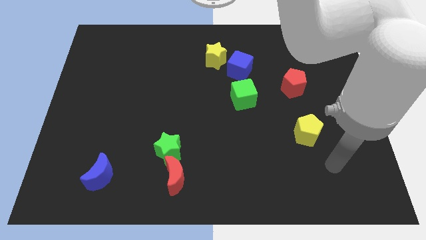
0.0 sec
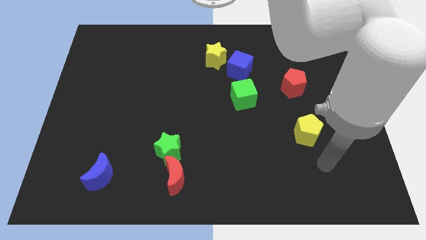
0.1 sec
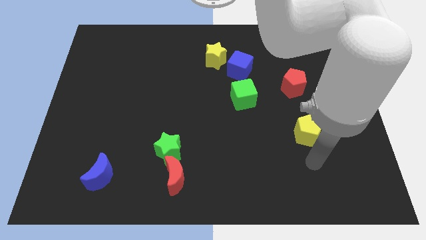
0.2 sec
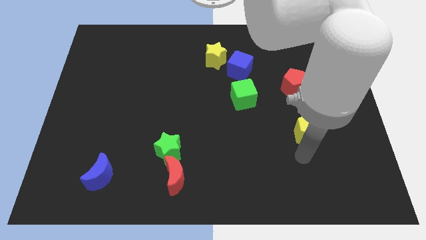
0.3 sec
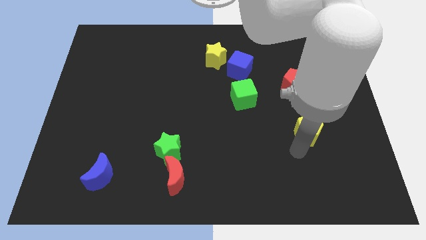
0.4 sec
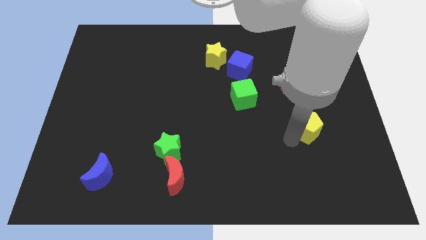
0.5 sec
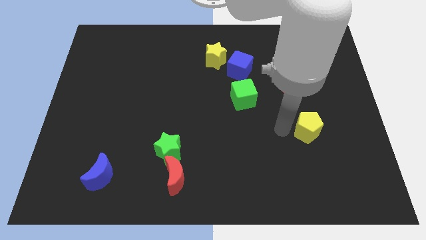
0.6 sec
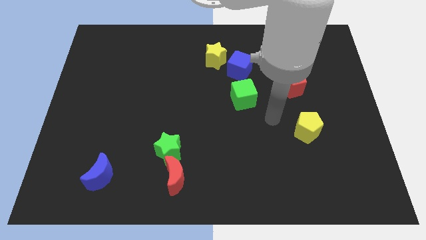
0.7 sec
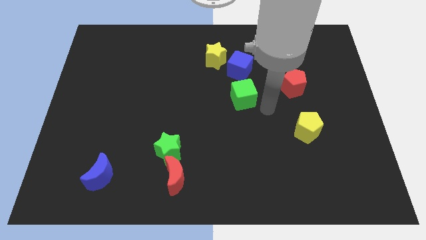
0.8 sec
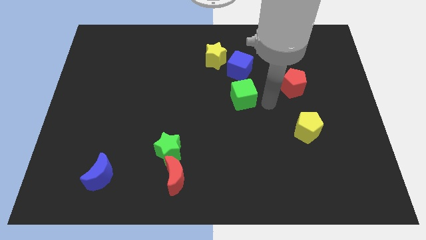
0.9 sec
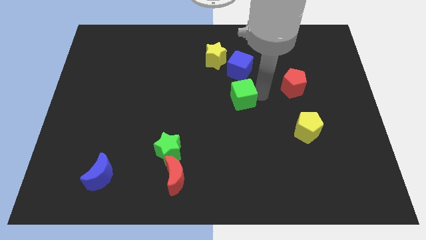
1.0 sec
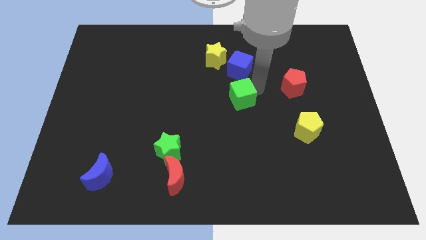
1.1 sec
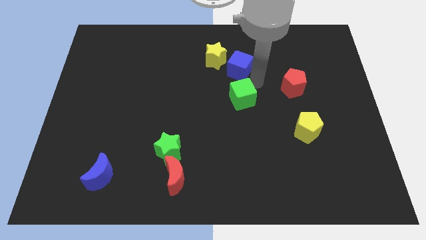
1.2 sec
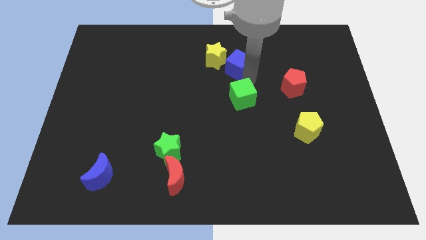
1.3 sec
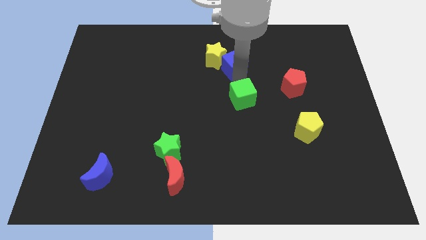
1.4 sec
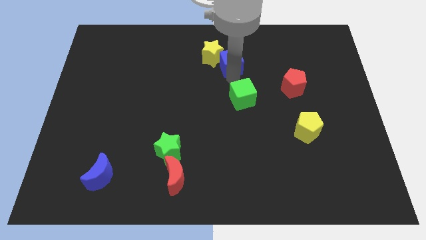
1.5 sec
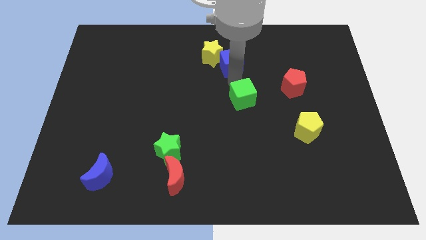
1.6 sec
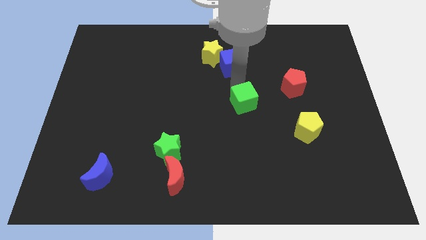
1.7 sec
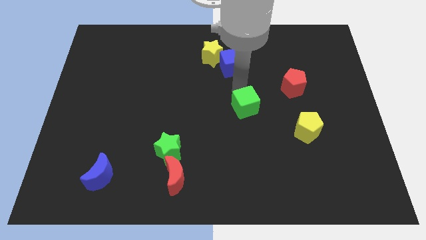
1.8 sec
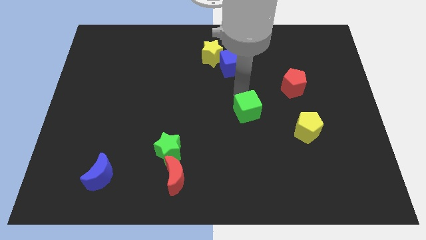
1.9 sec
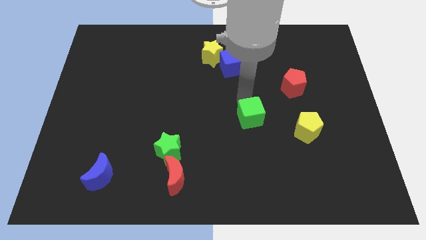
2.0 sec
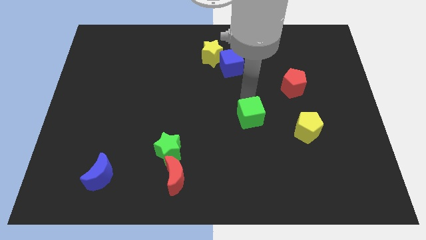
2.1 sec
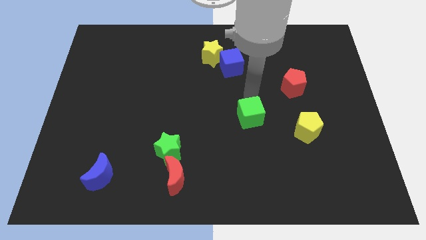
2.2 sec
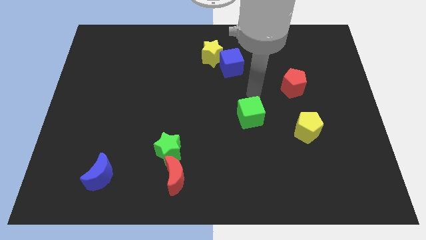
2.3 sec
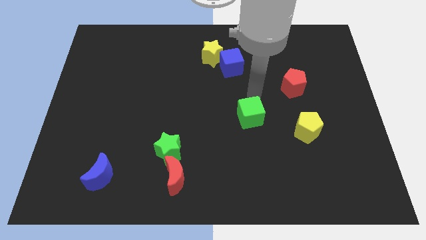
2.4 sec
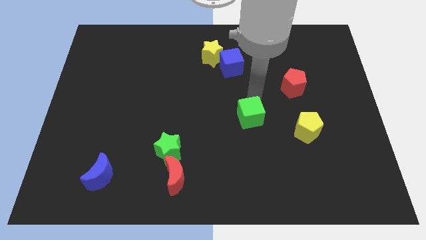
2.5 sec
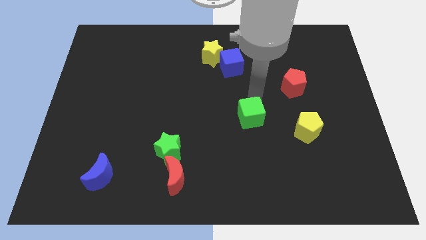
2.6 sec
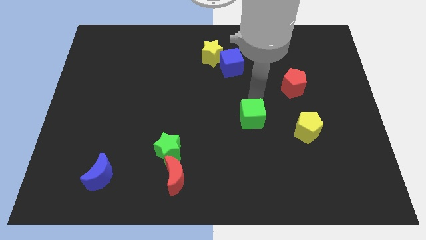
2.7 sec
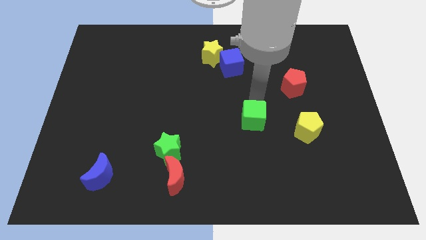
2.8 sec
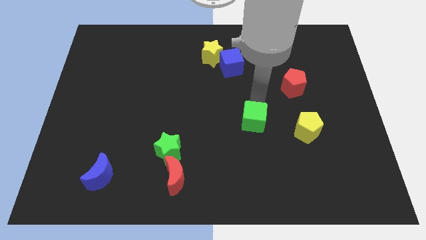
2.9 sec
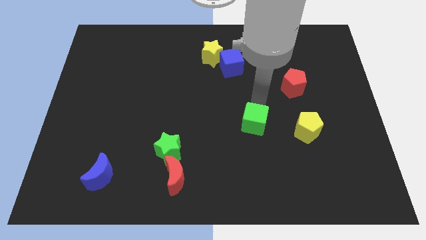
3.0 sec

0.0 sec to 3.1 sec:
push the green cube downwards a little

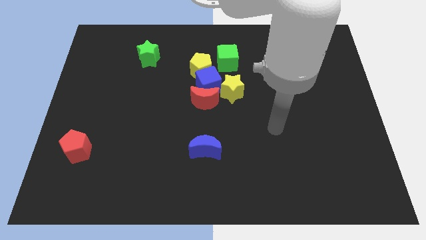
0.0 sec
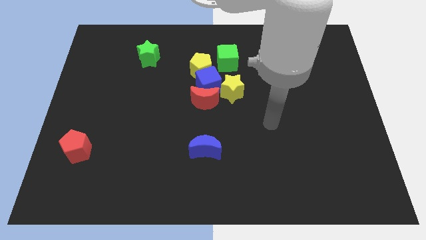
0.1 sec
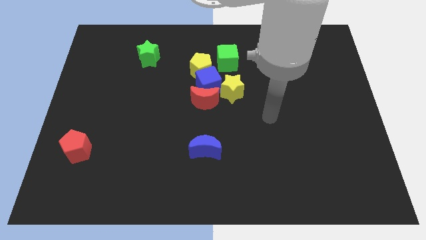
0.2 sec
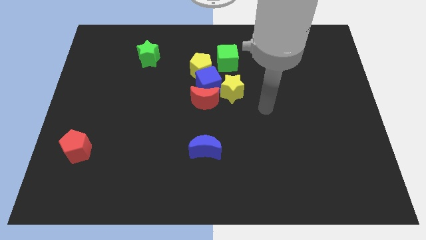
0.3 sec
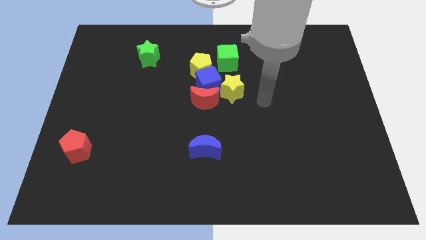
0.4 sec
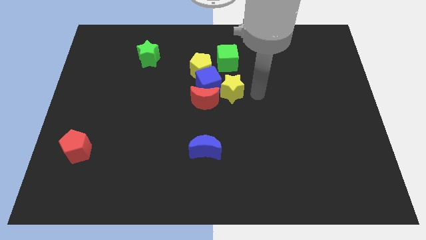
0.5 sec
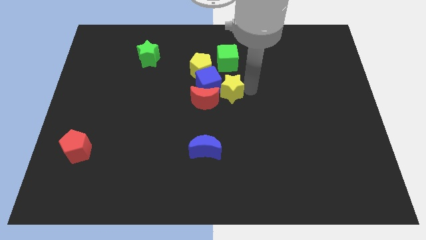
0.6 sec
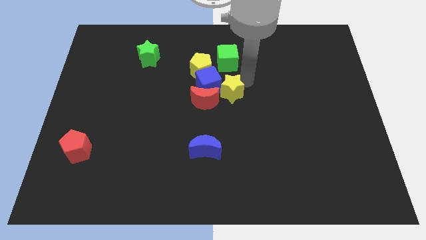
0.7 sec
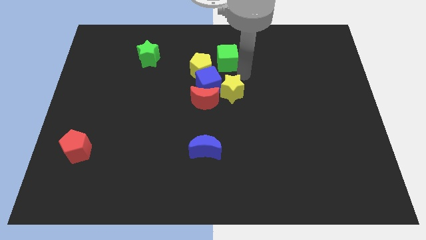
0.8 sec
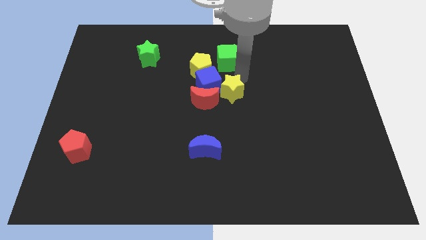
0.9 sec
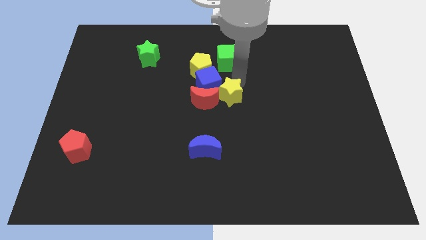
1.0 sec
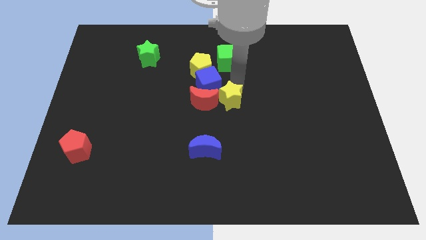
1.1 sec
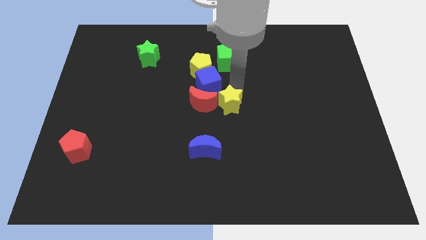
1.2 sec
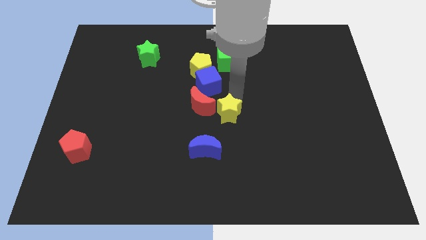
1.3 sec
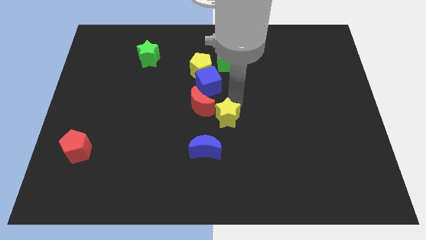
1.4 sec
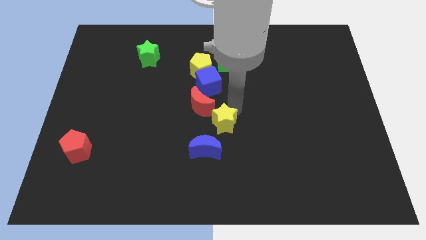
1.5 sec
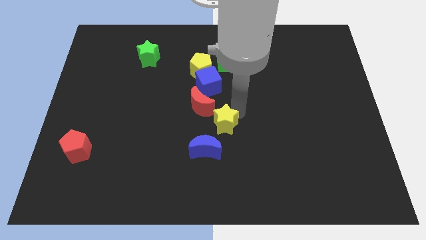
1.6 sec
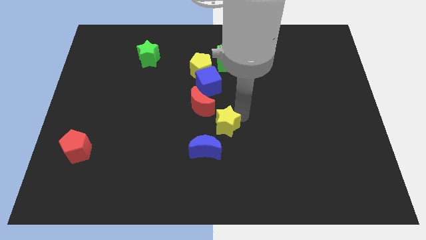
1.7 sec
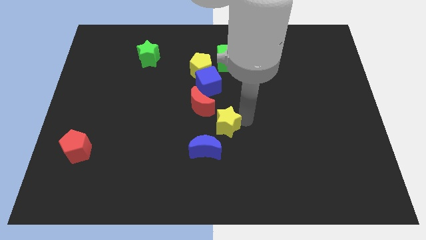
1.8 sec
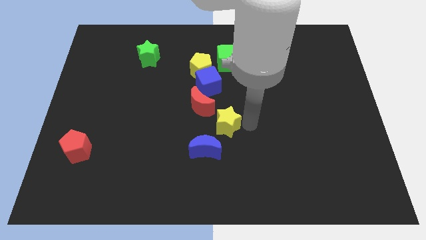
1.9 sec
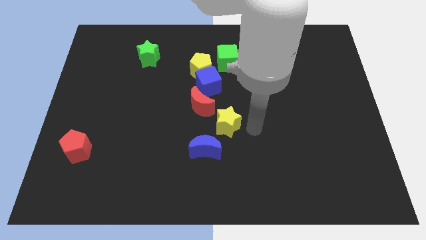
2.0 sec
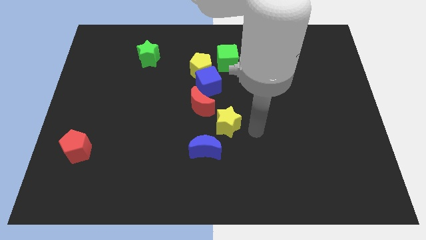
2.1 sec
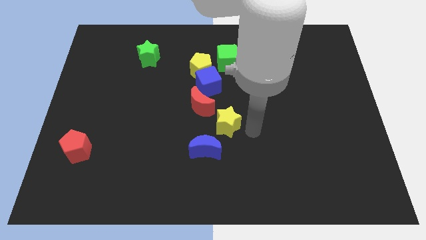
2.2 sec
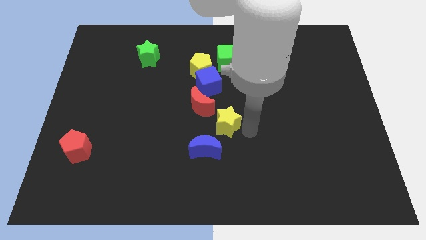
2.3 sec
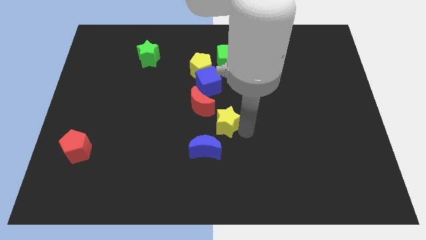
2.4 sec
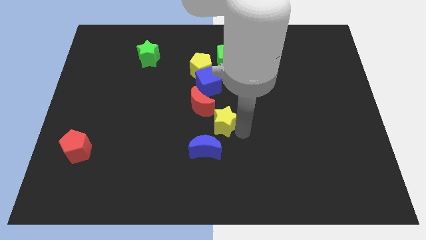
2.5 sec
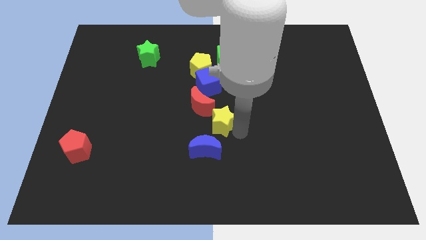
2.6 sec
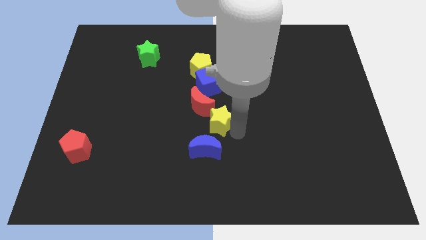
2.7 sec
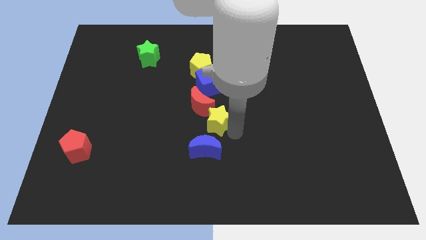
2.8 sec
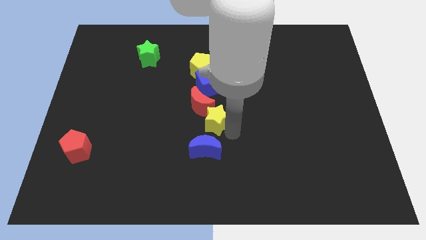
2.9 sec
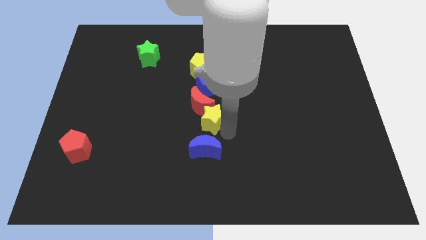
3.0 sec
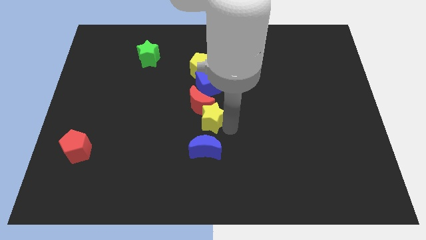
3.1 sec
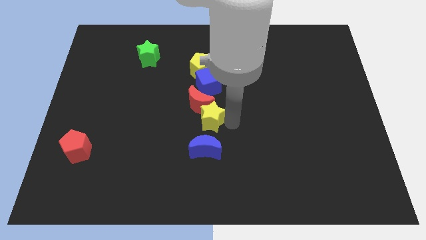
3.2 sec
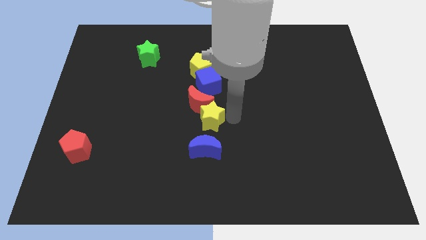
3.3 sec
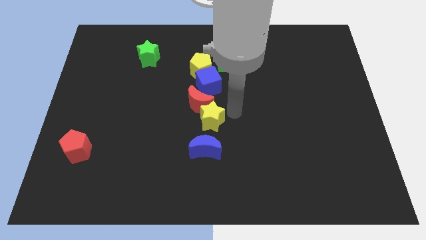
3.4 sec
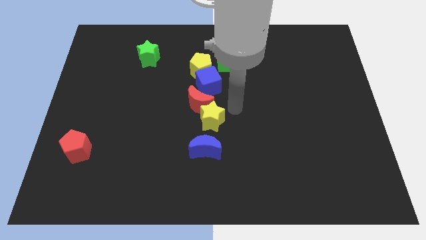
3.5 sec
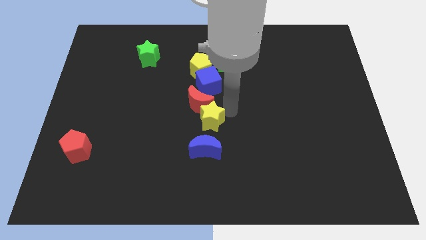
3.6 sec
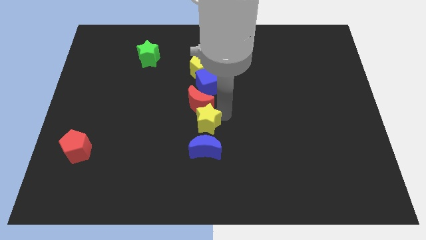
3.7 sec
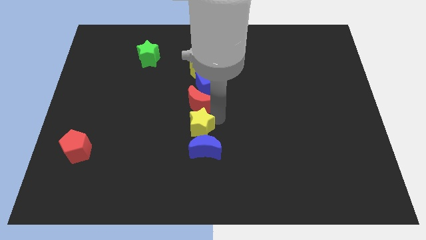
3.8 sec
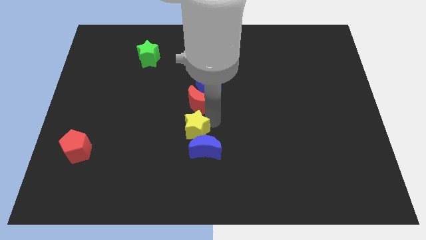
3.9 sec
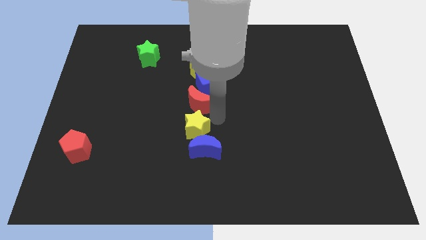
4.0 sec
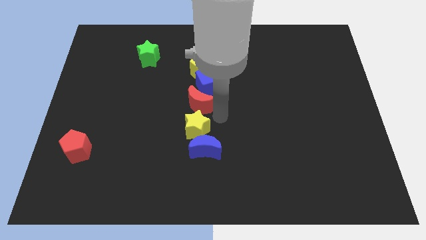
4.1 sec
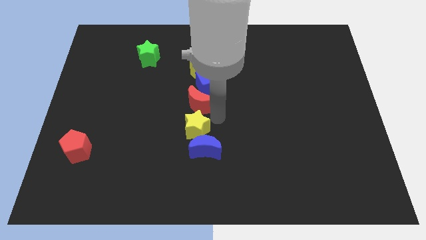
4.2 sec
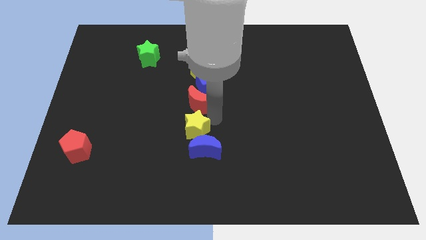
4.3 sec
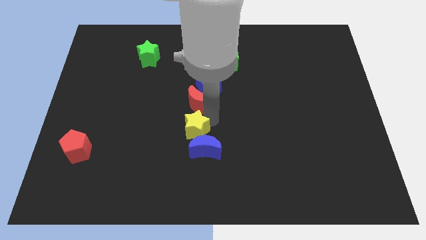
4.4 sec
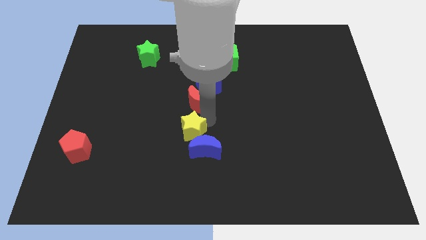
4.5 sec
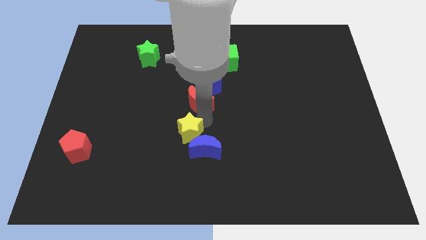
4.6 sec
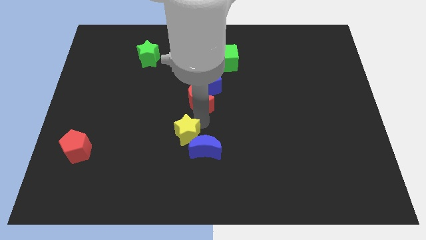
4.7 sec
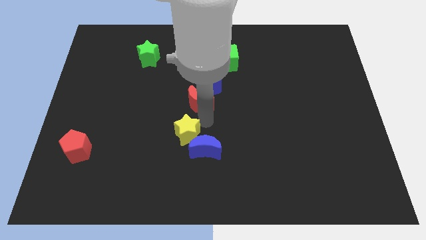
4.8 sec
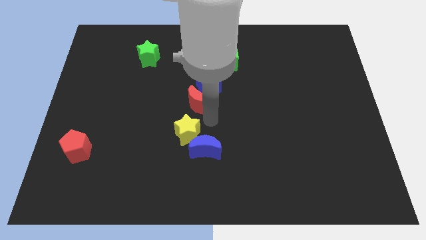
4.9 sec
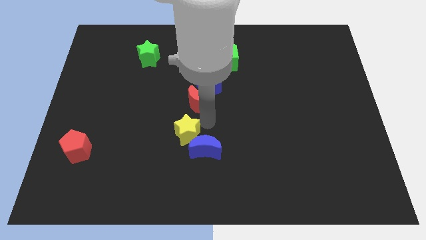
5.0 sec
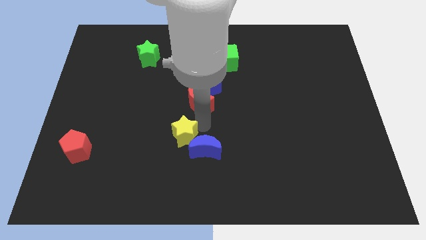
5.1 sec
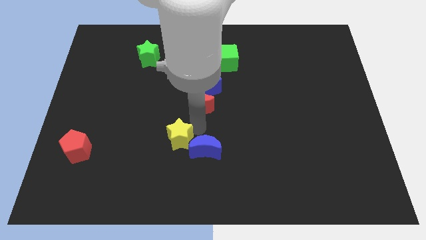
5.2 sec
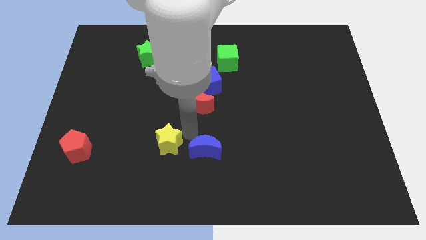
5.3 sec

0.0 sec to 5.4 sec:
push the yellow star down and left
